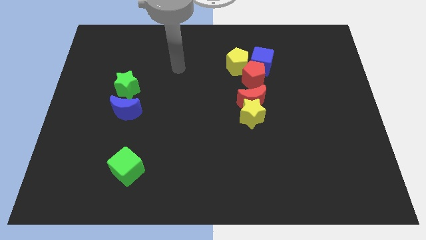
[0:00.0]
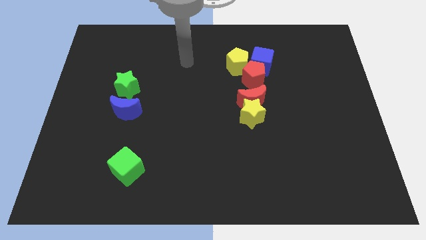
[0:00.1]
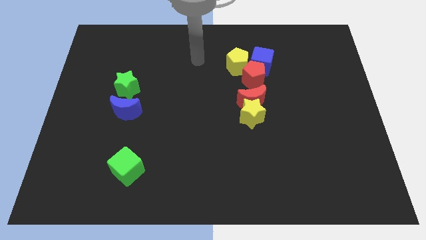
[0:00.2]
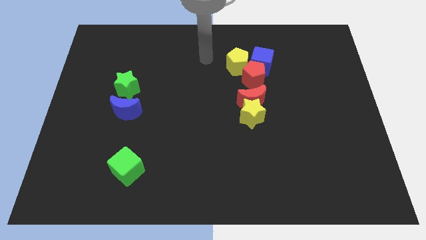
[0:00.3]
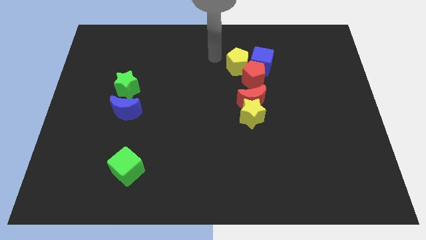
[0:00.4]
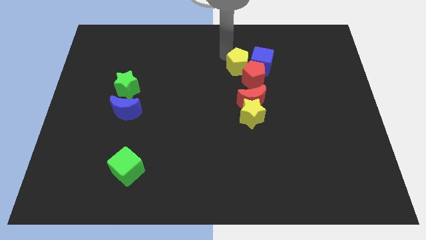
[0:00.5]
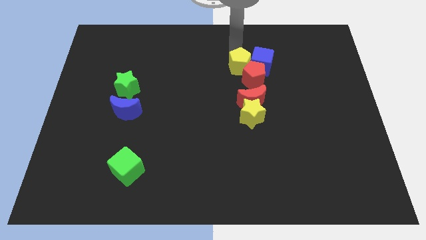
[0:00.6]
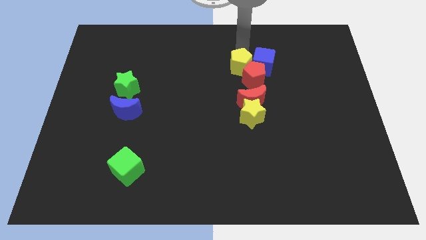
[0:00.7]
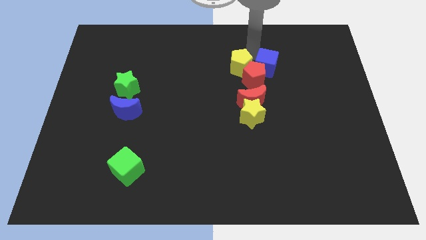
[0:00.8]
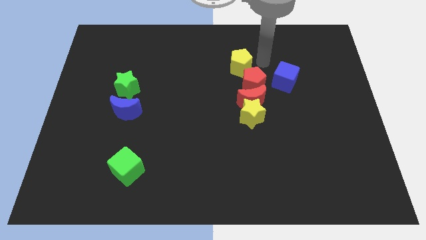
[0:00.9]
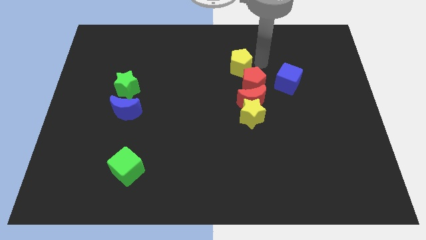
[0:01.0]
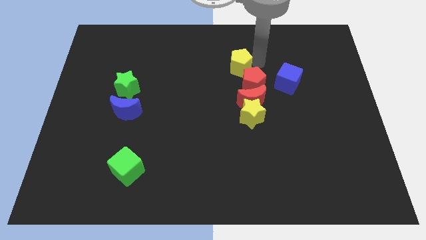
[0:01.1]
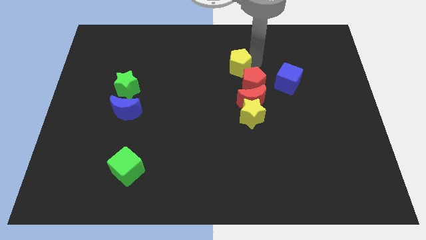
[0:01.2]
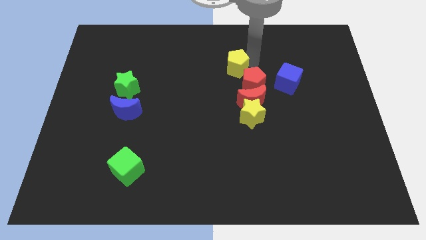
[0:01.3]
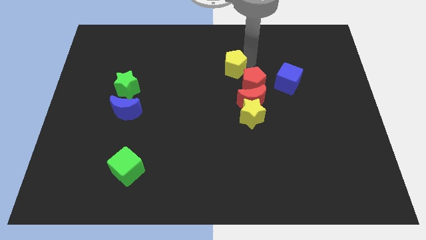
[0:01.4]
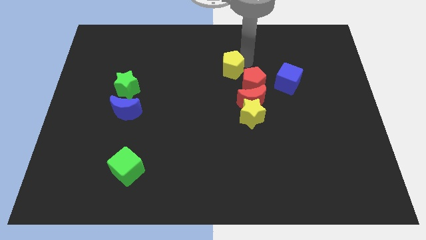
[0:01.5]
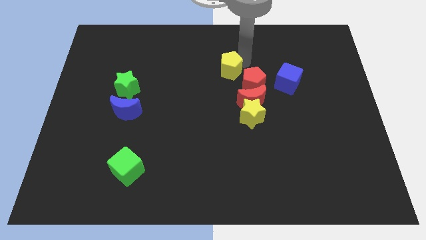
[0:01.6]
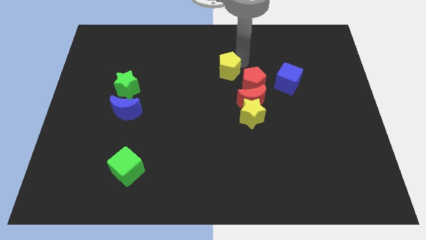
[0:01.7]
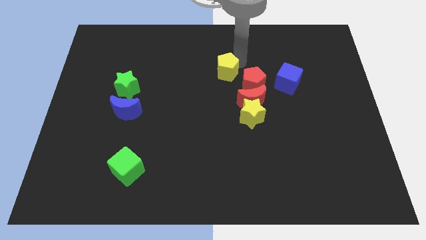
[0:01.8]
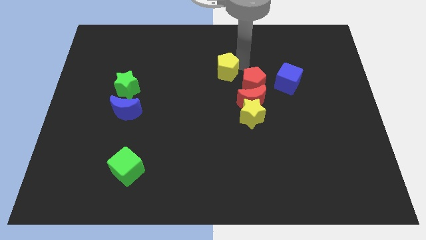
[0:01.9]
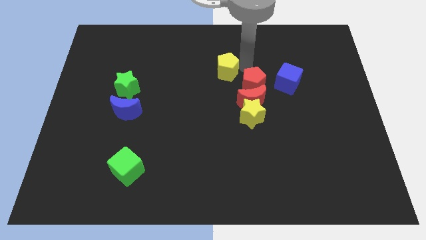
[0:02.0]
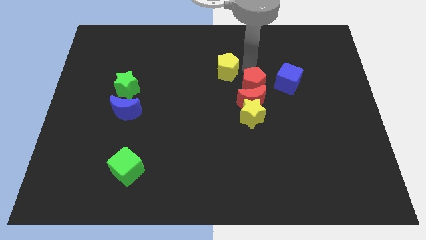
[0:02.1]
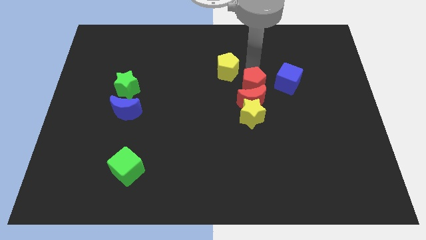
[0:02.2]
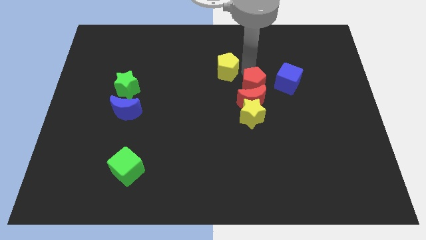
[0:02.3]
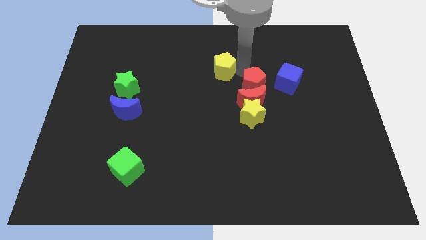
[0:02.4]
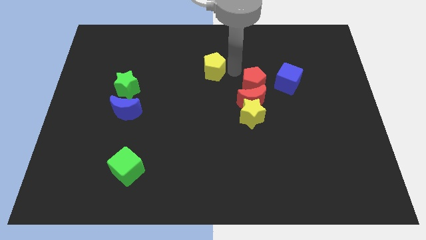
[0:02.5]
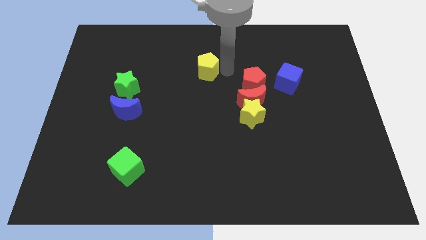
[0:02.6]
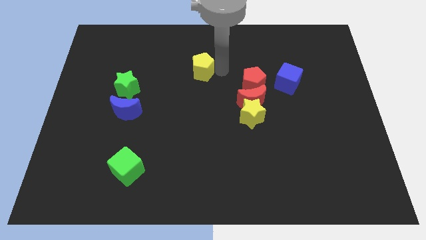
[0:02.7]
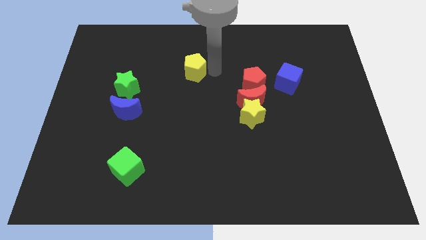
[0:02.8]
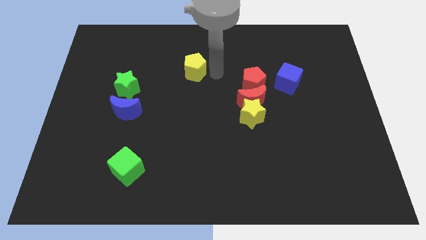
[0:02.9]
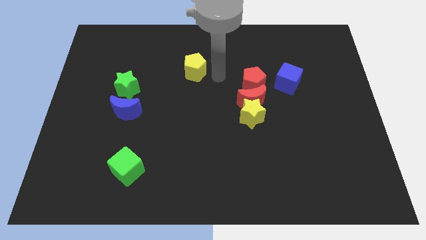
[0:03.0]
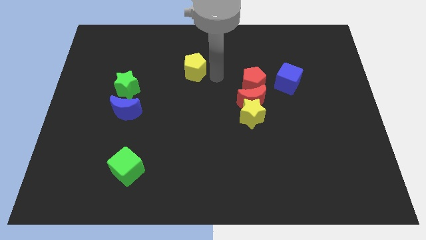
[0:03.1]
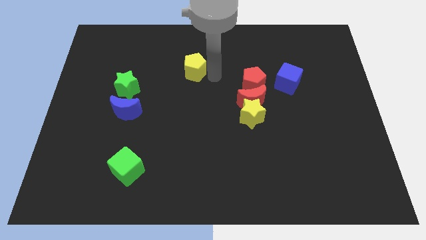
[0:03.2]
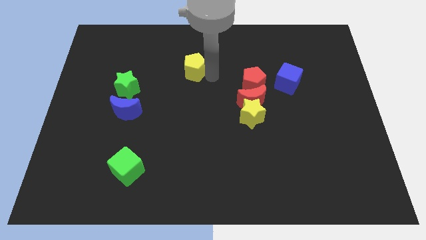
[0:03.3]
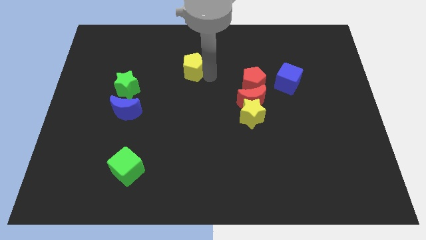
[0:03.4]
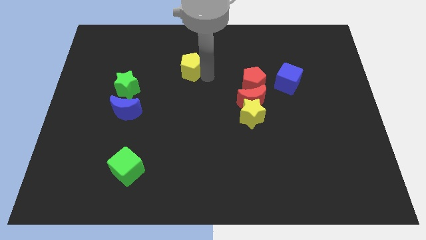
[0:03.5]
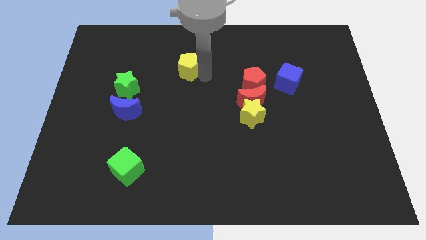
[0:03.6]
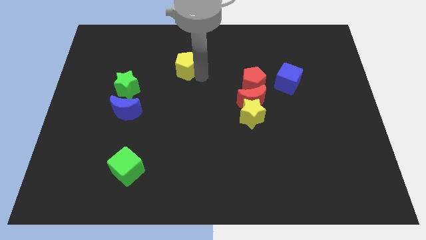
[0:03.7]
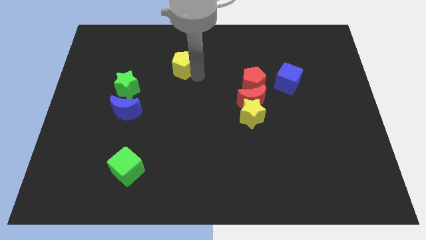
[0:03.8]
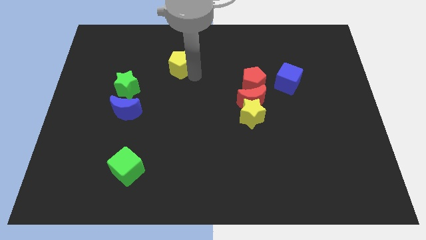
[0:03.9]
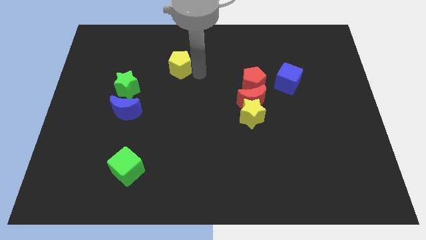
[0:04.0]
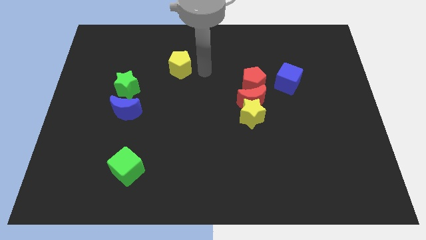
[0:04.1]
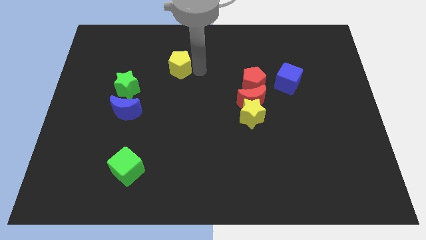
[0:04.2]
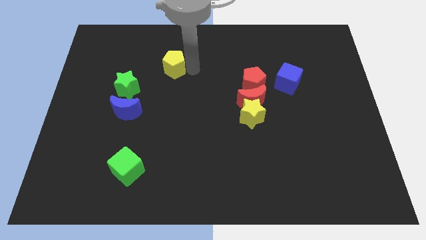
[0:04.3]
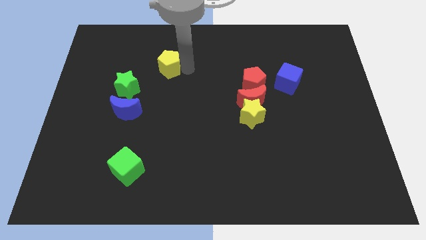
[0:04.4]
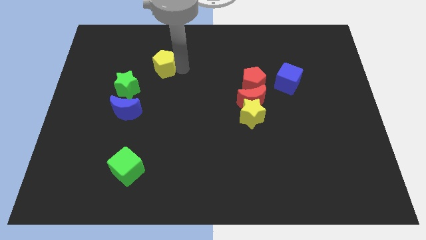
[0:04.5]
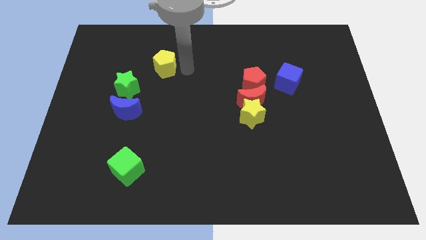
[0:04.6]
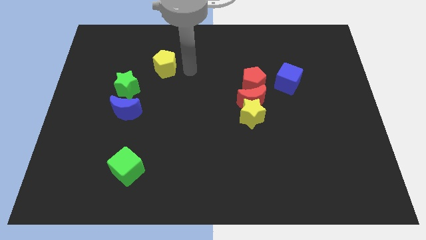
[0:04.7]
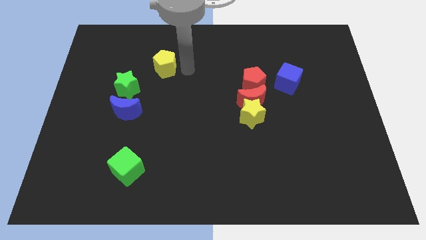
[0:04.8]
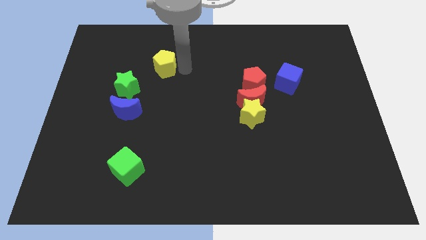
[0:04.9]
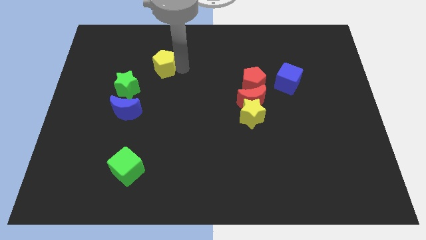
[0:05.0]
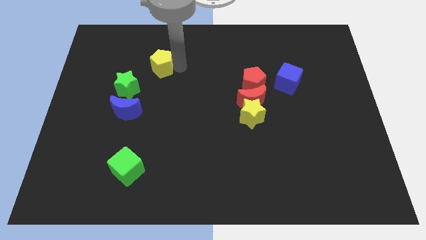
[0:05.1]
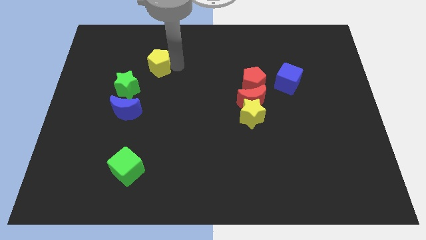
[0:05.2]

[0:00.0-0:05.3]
move the yellow pentagon to the left

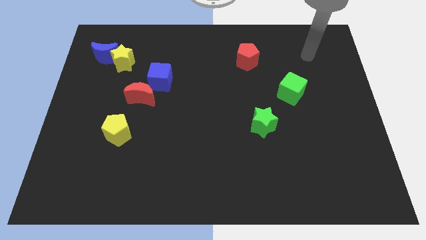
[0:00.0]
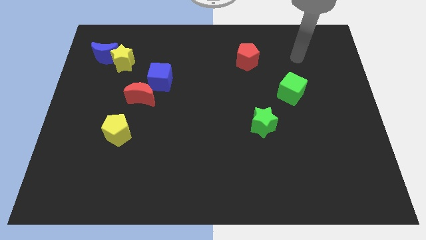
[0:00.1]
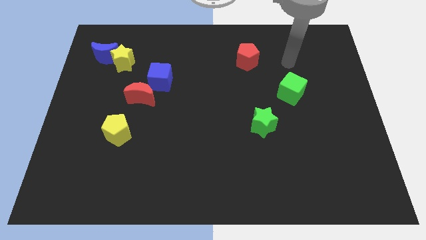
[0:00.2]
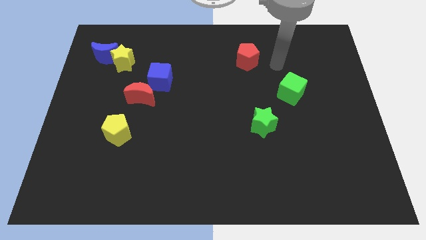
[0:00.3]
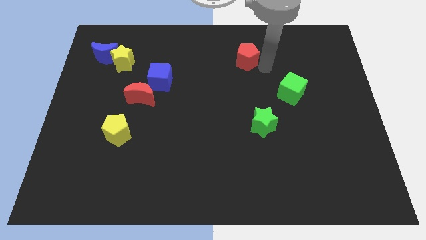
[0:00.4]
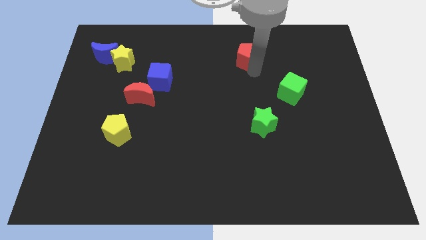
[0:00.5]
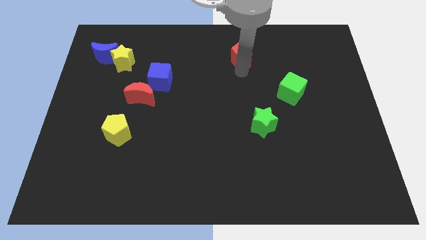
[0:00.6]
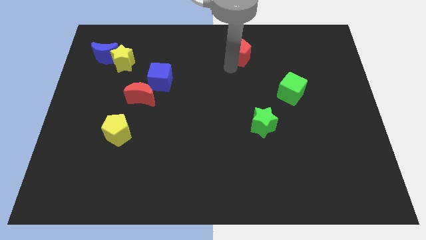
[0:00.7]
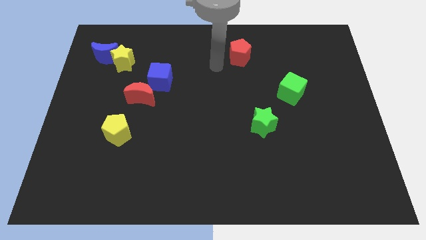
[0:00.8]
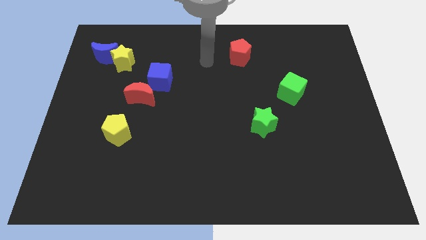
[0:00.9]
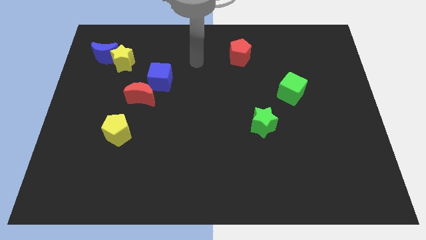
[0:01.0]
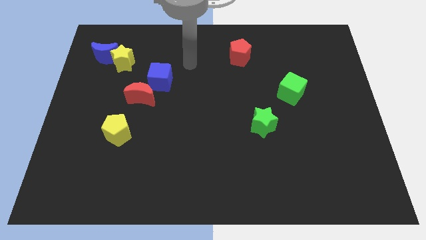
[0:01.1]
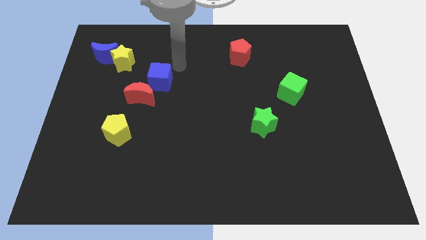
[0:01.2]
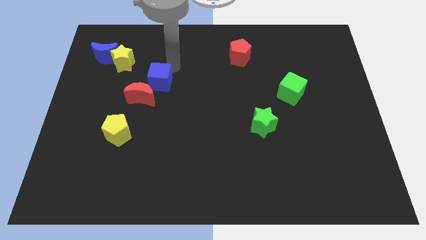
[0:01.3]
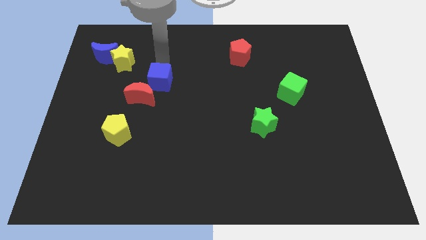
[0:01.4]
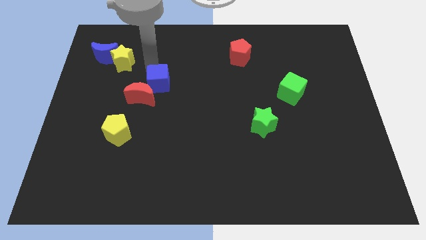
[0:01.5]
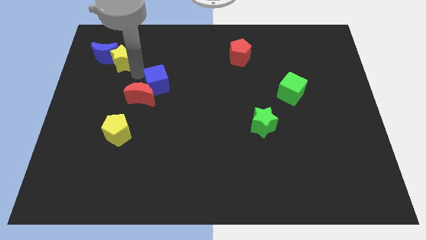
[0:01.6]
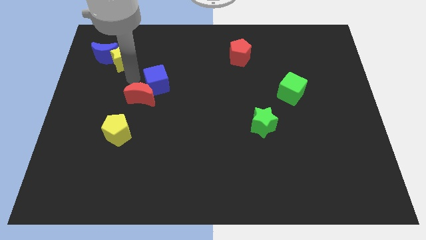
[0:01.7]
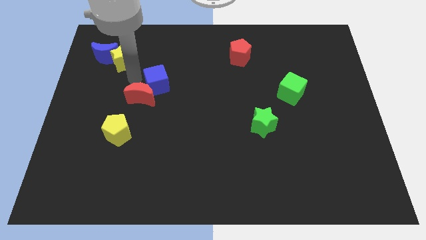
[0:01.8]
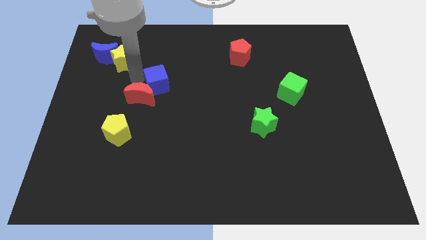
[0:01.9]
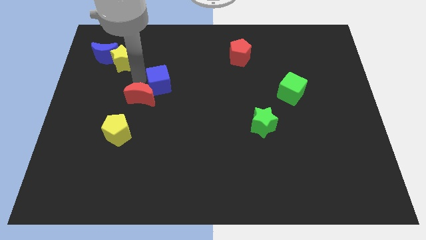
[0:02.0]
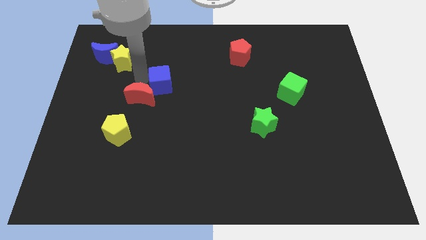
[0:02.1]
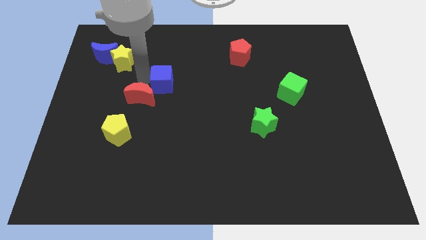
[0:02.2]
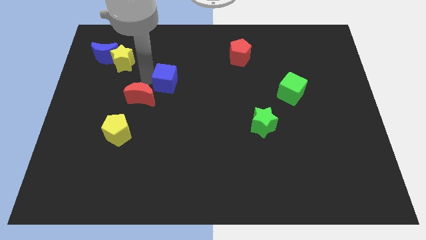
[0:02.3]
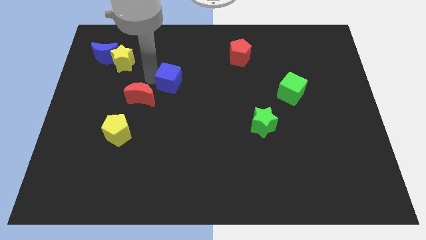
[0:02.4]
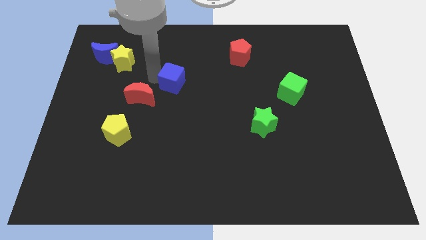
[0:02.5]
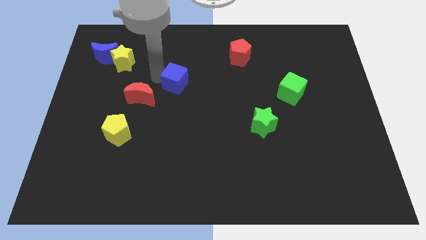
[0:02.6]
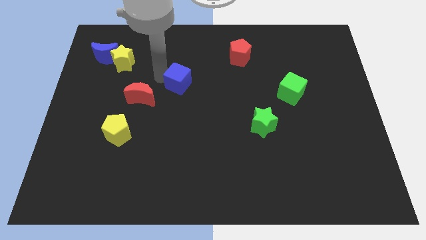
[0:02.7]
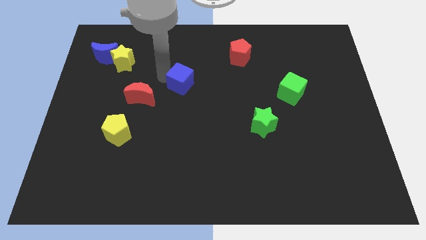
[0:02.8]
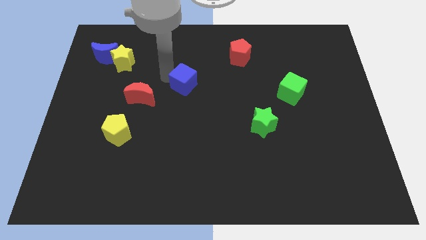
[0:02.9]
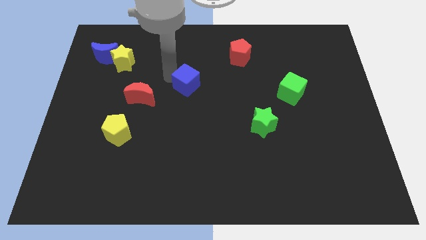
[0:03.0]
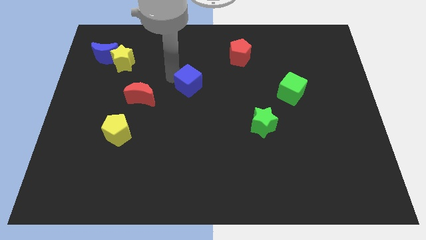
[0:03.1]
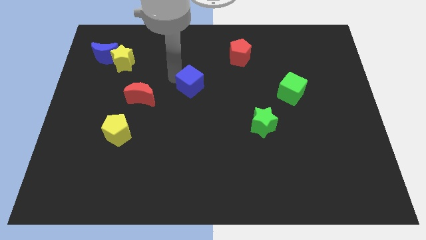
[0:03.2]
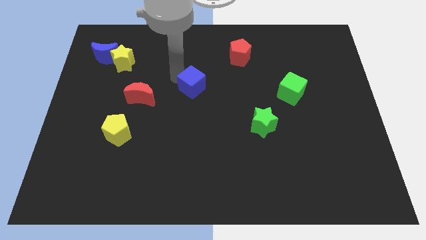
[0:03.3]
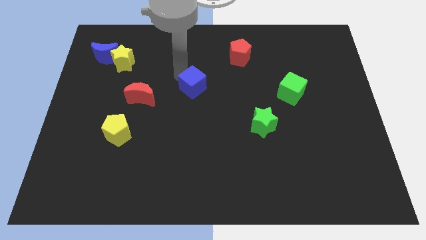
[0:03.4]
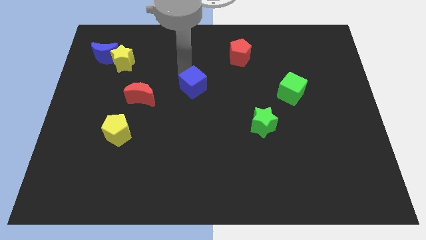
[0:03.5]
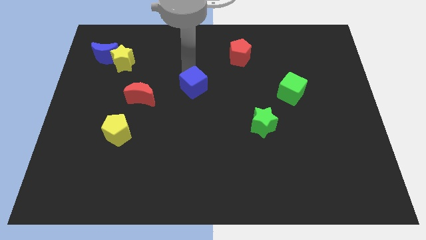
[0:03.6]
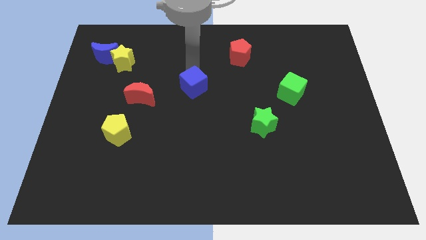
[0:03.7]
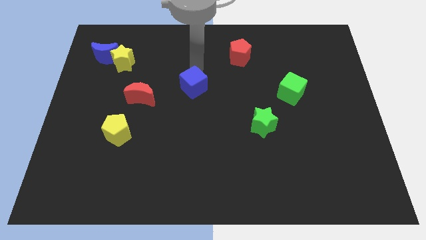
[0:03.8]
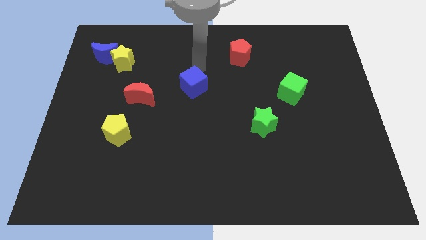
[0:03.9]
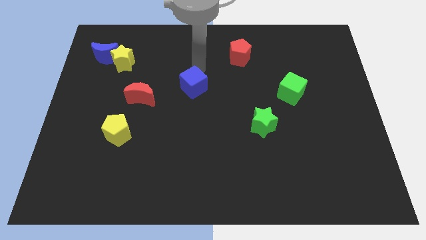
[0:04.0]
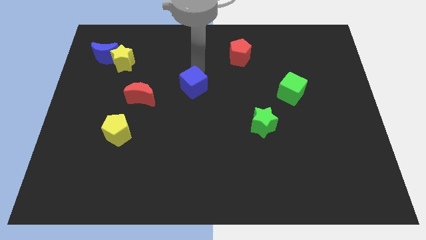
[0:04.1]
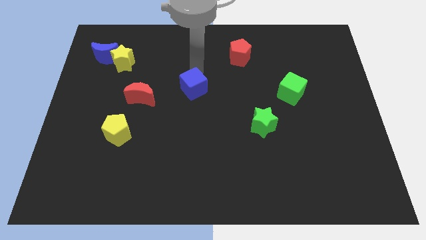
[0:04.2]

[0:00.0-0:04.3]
move the blue cube slightly down and to the right diagonally
